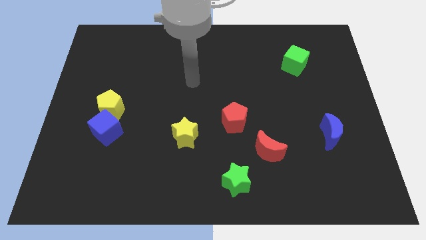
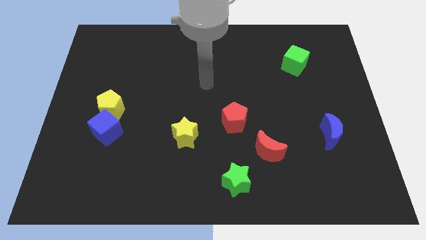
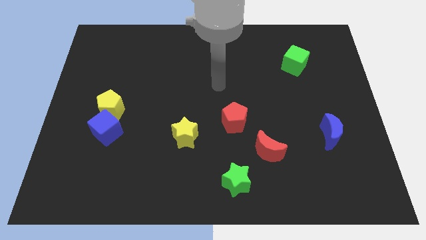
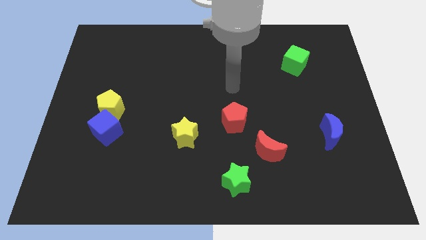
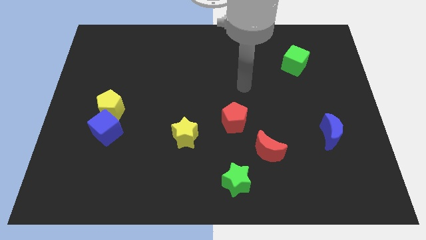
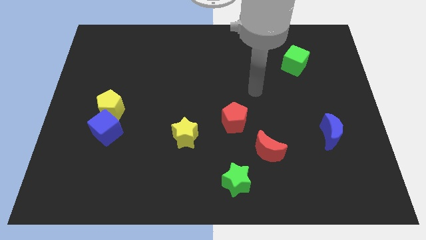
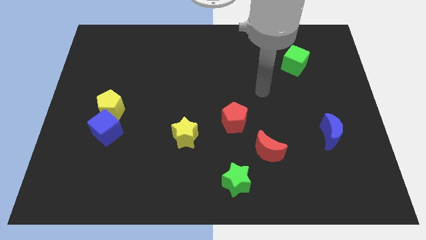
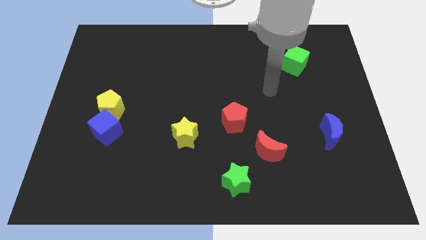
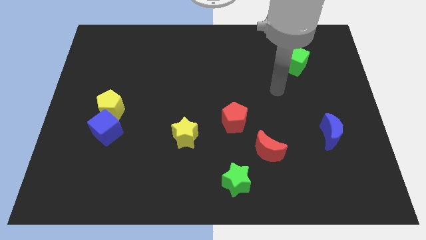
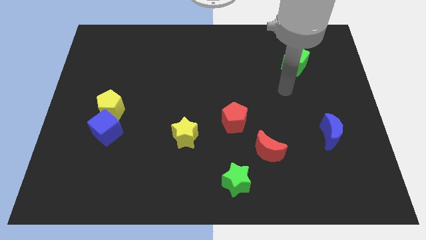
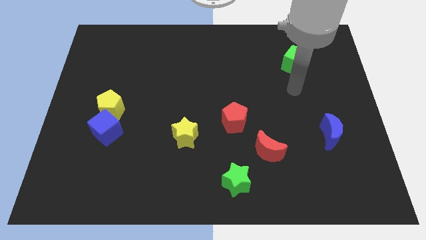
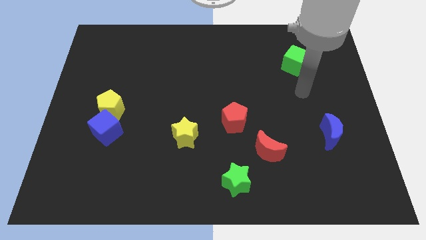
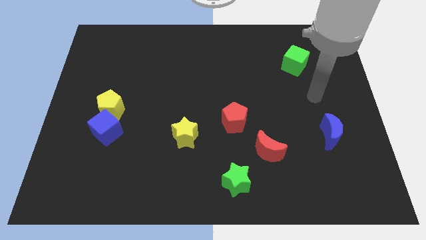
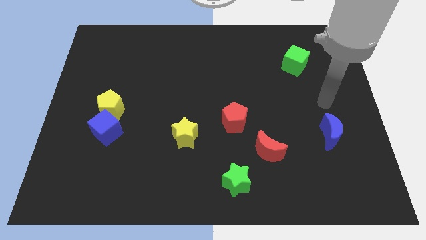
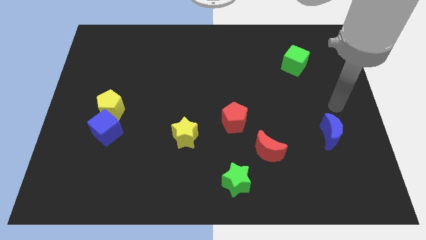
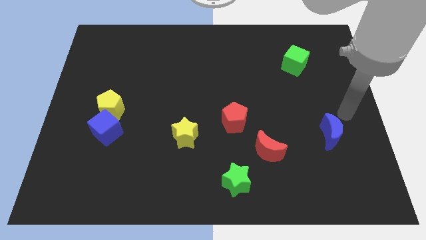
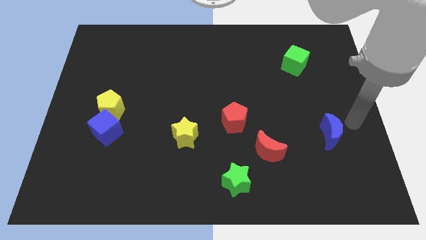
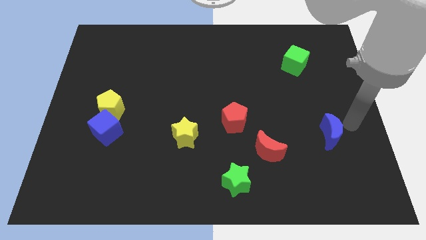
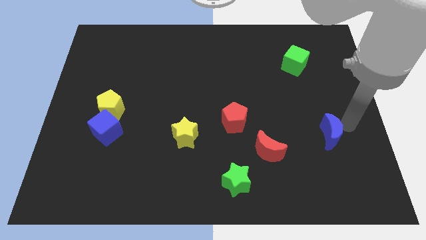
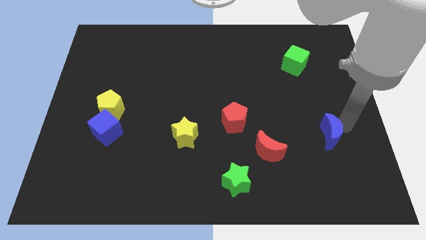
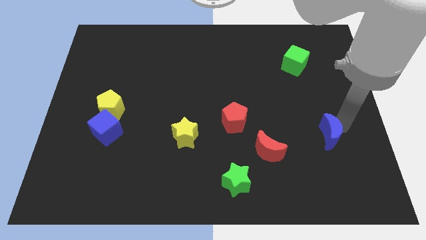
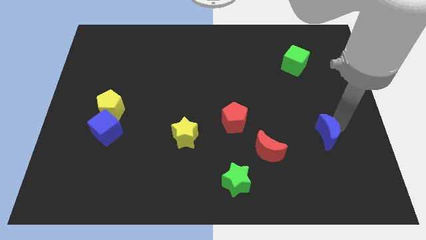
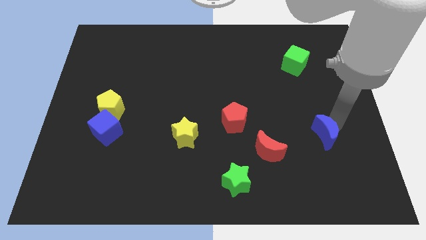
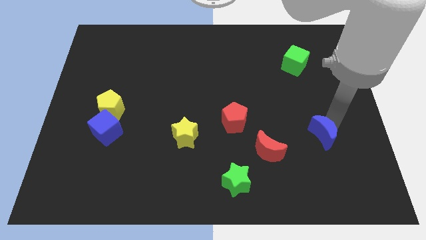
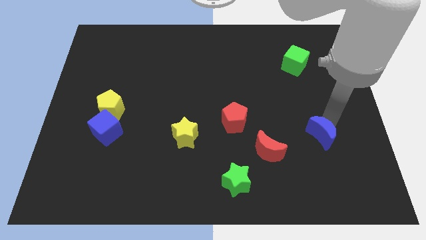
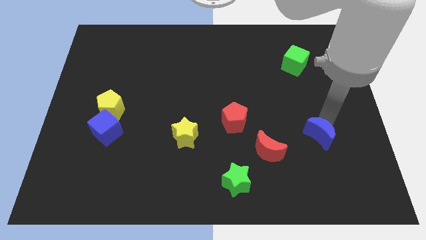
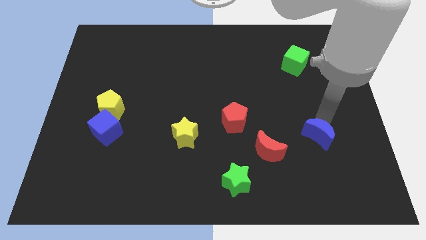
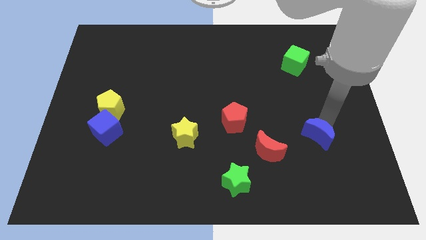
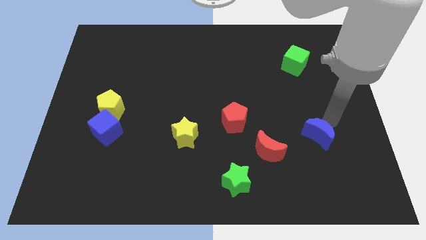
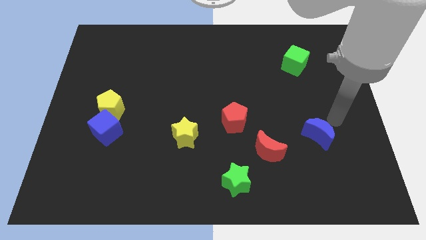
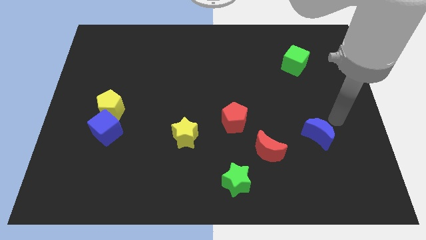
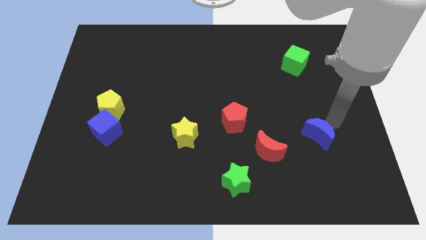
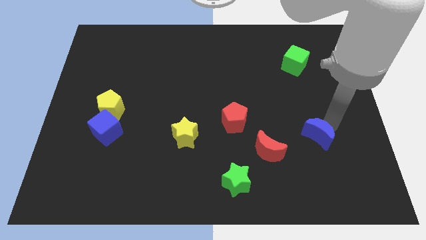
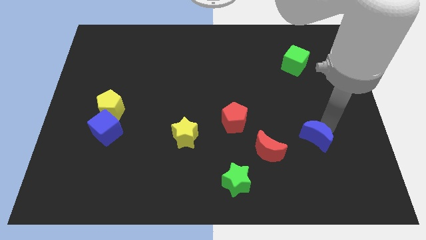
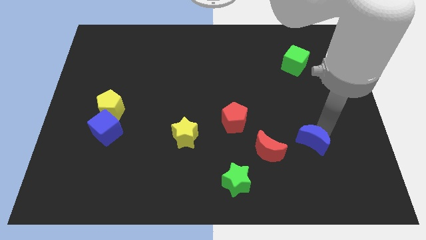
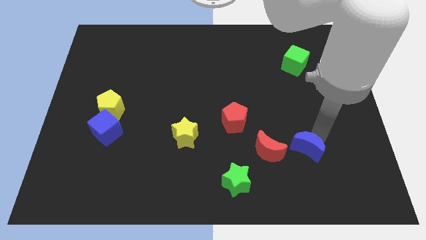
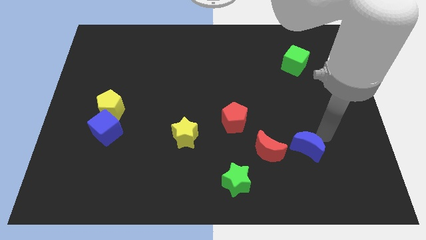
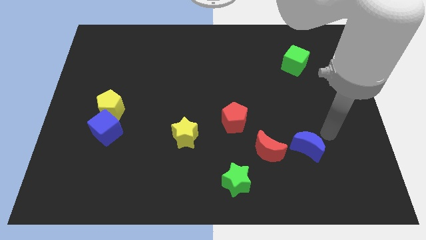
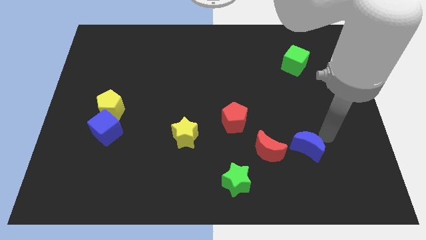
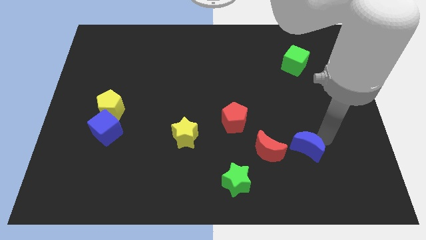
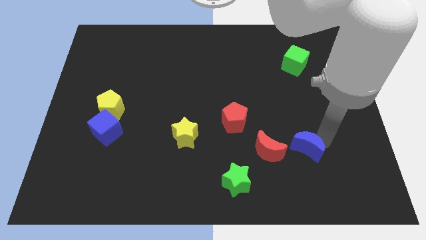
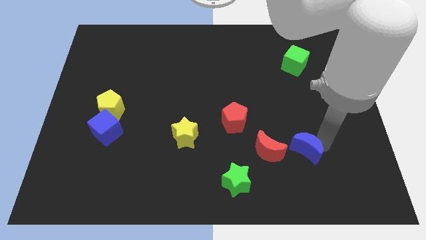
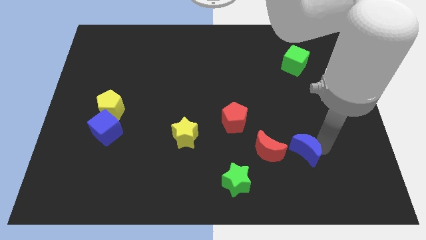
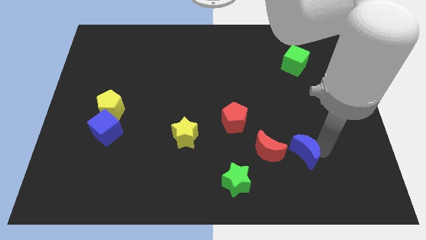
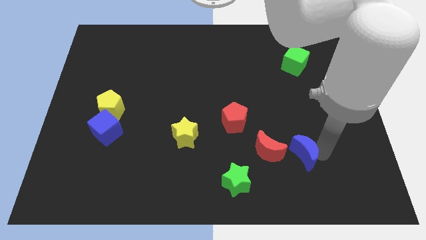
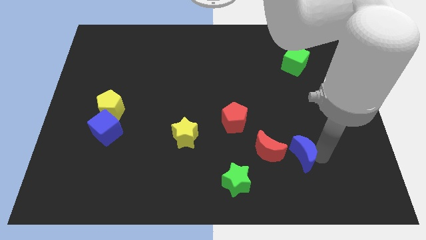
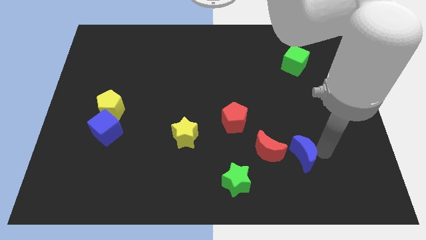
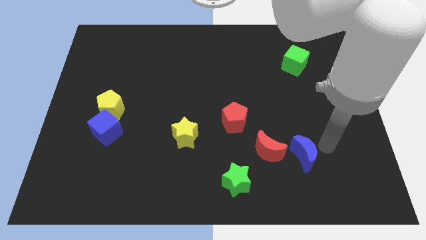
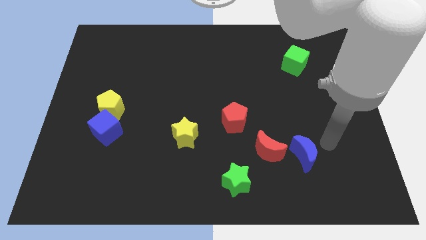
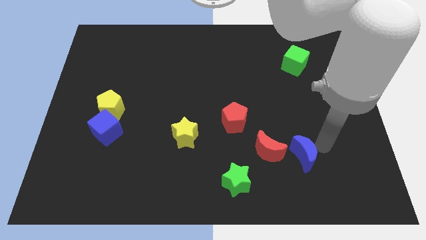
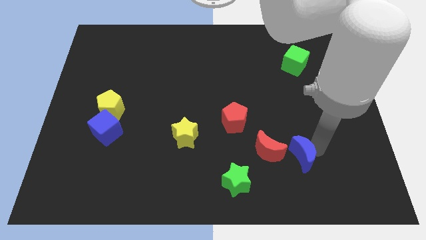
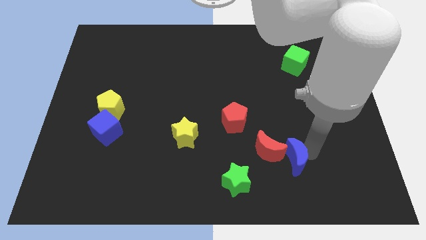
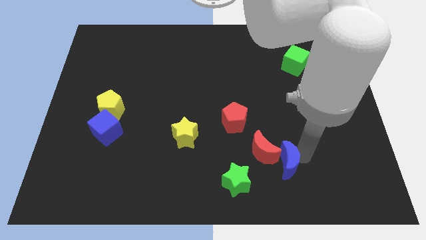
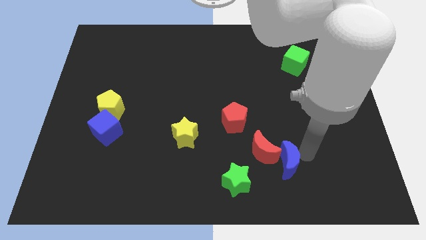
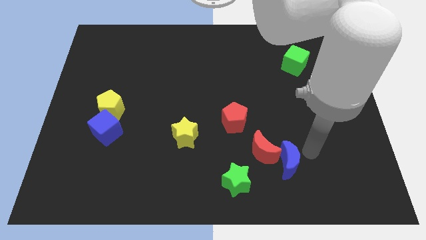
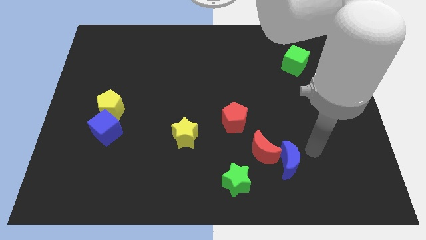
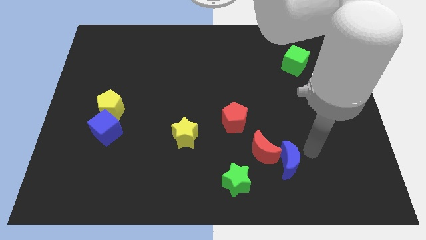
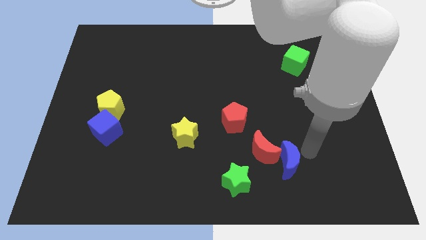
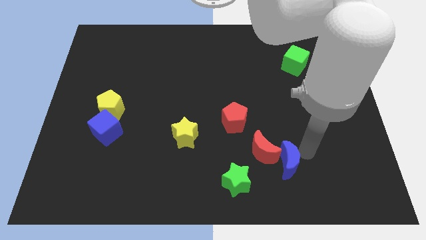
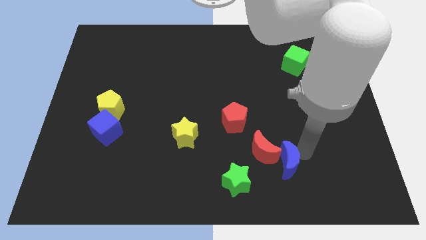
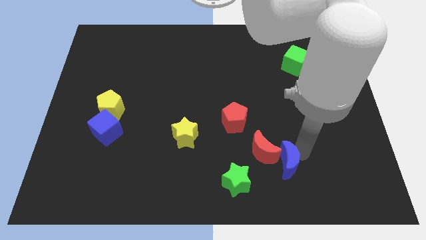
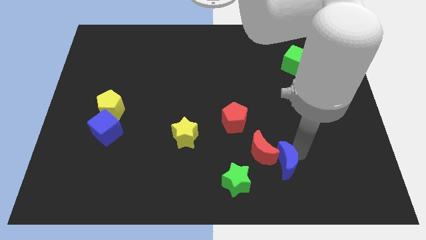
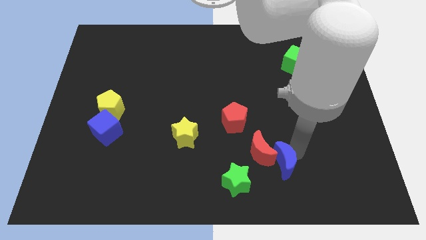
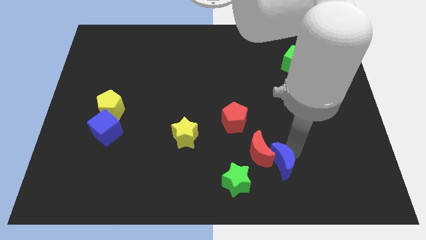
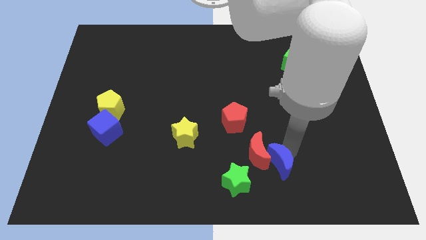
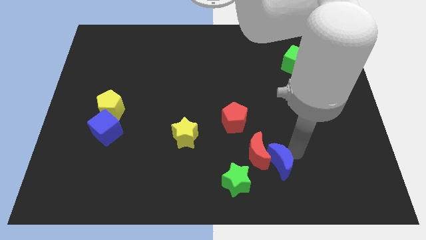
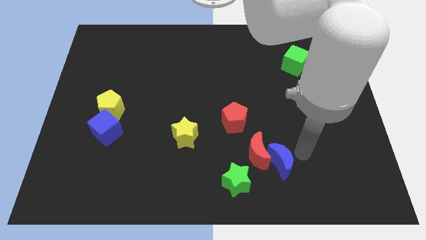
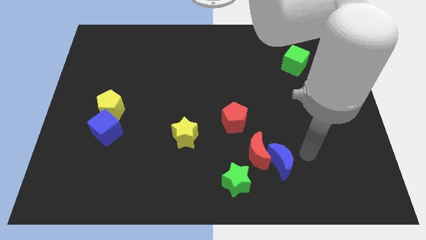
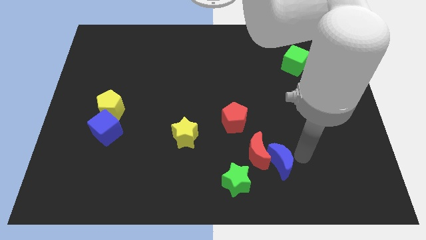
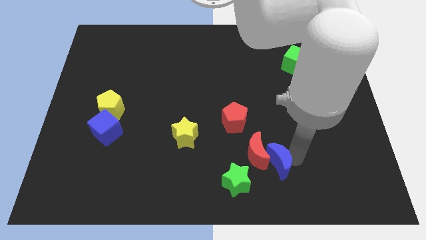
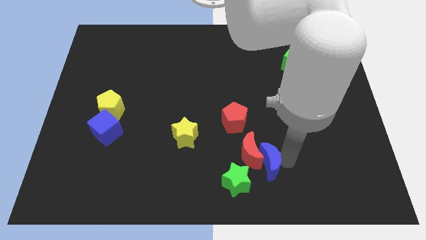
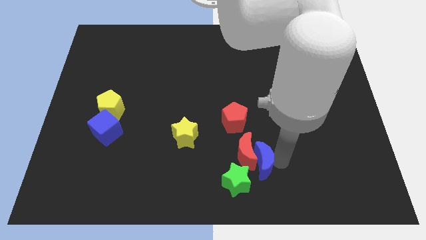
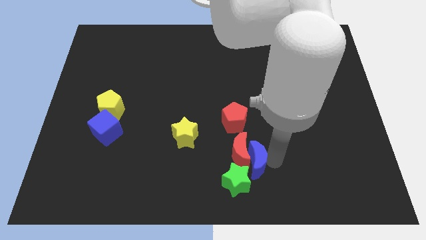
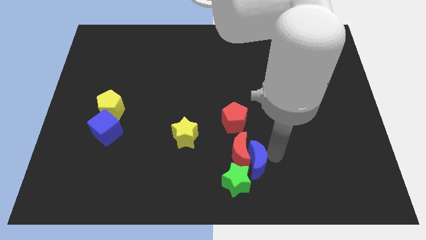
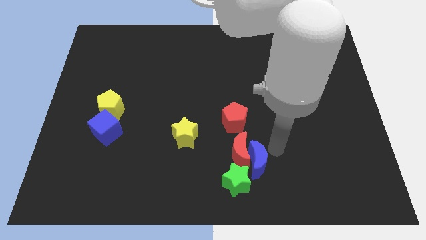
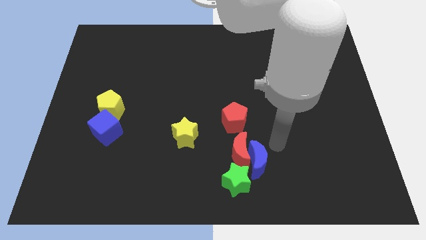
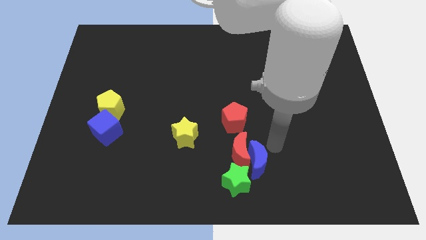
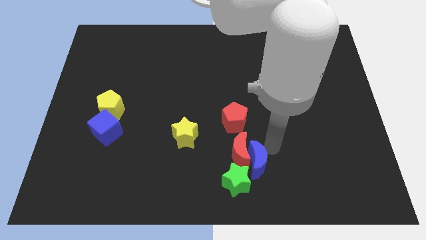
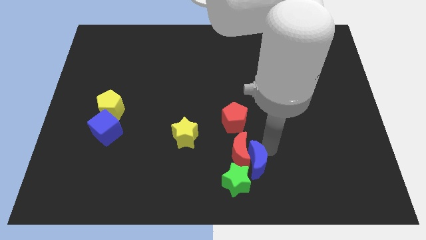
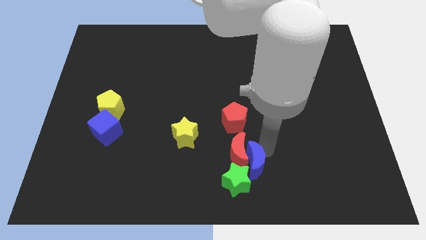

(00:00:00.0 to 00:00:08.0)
move the blue moon towards the green star
